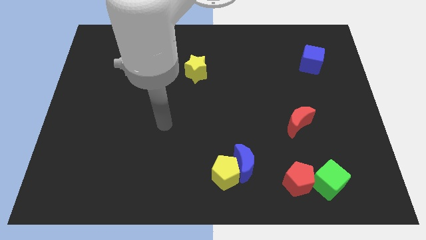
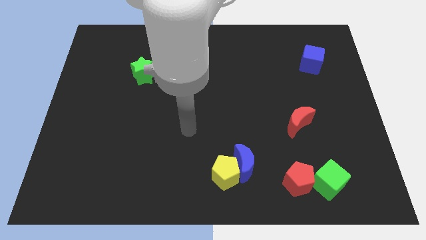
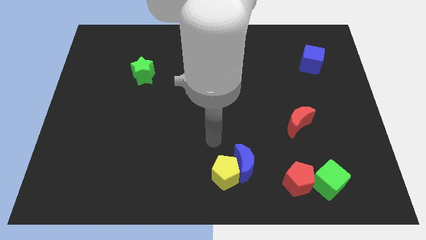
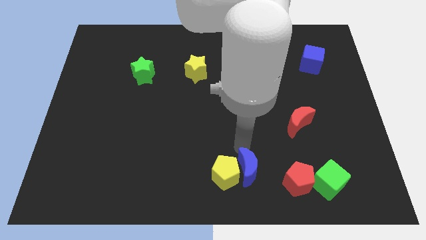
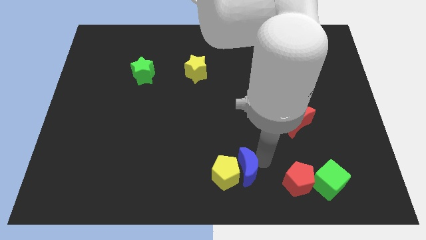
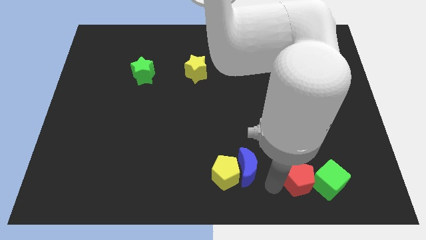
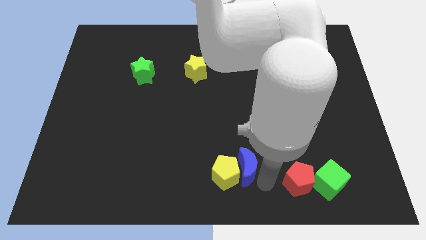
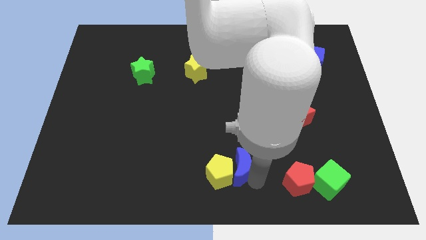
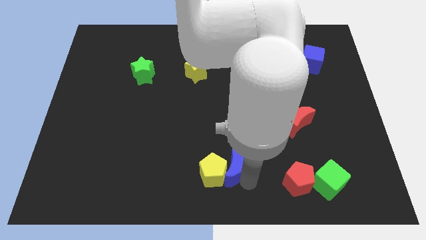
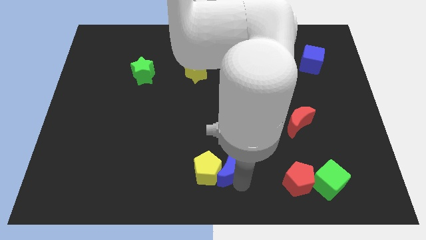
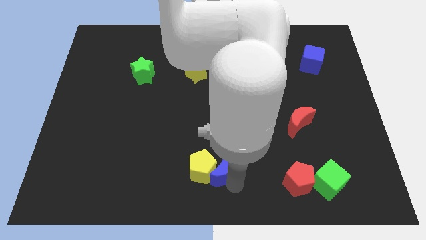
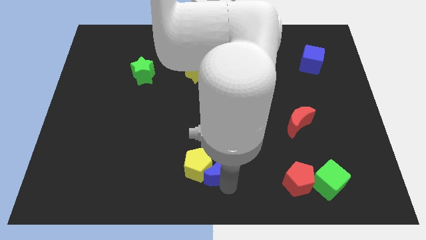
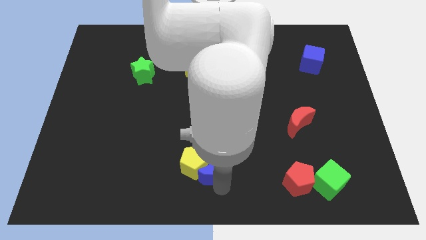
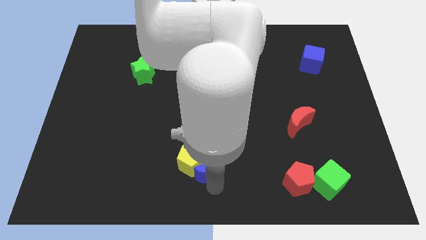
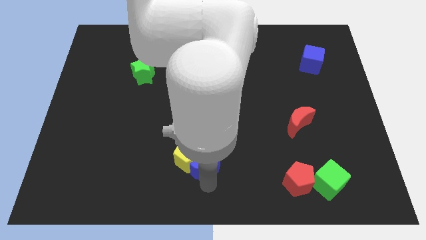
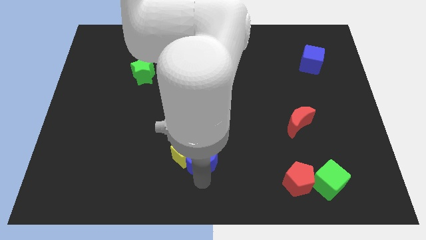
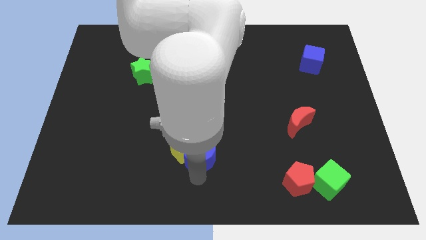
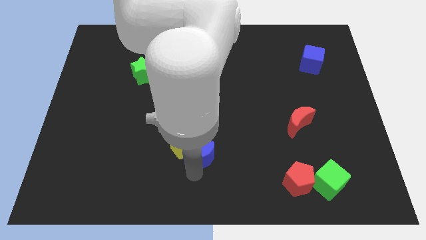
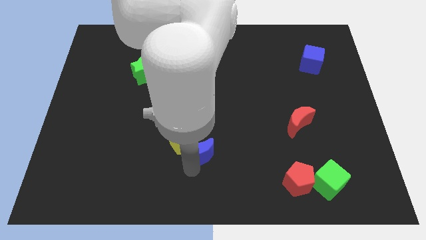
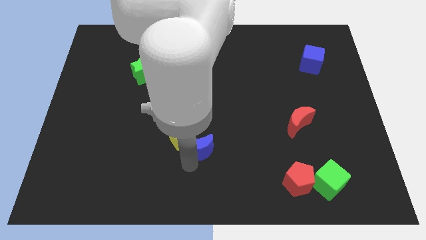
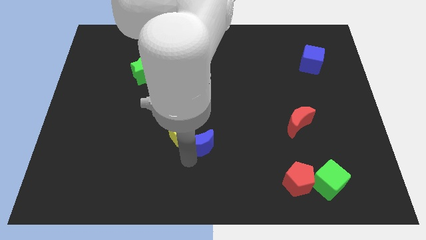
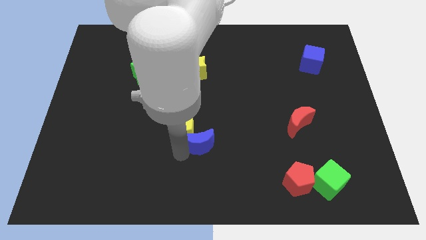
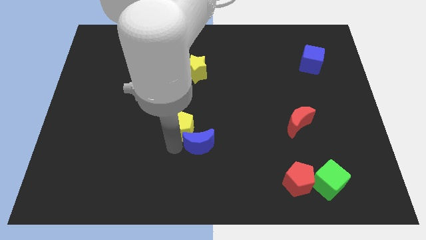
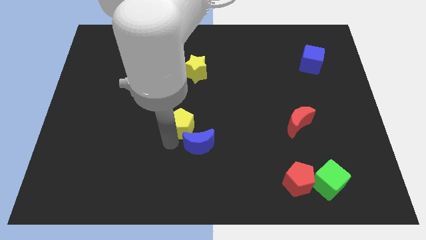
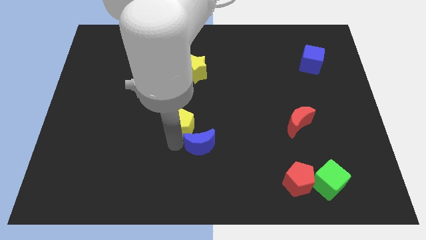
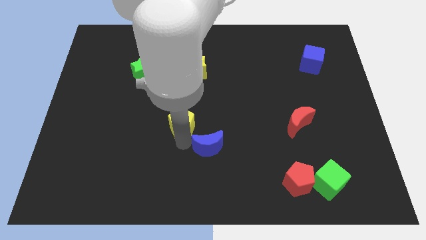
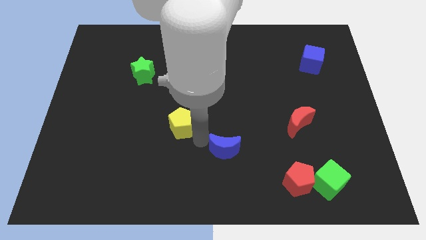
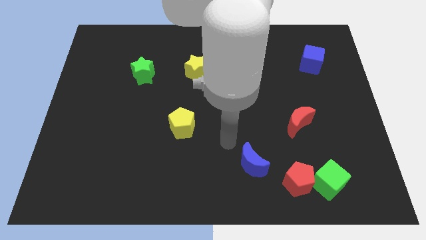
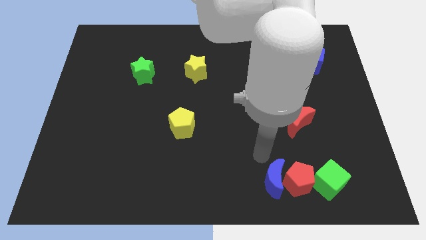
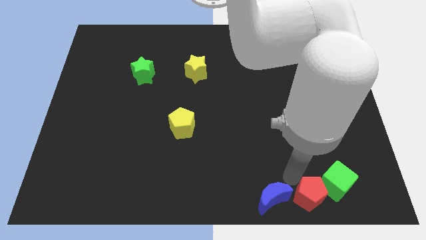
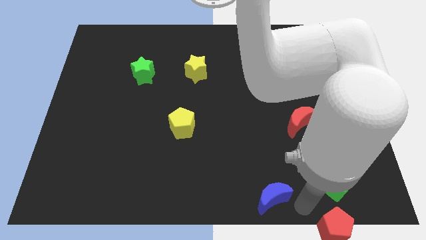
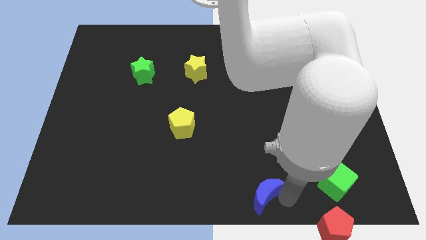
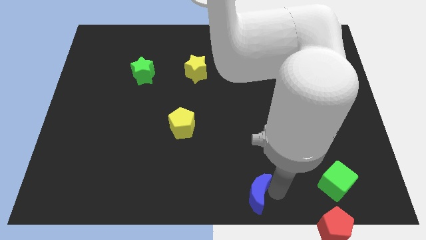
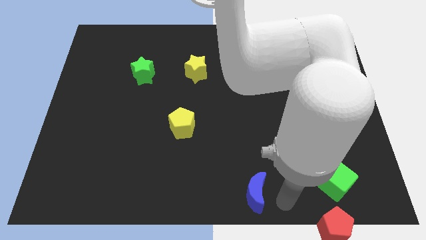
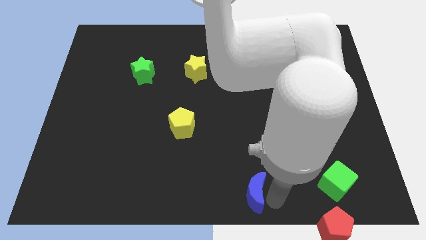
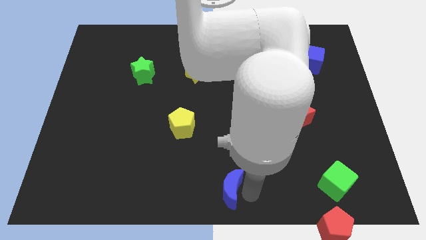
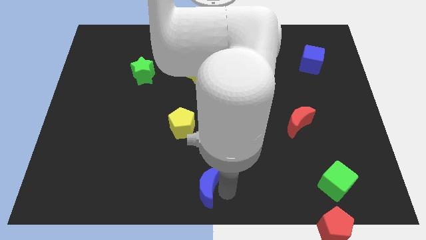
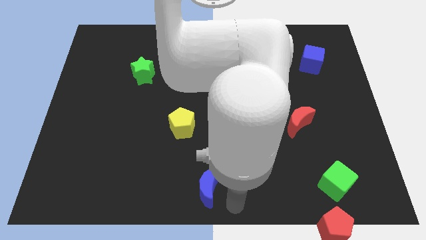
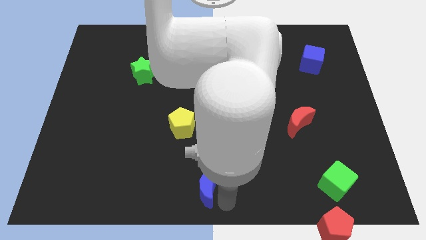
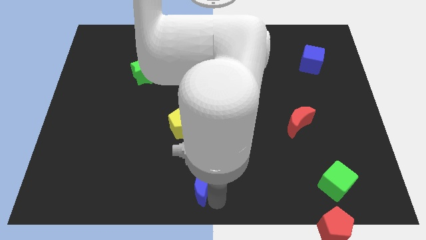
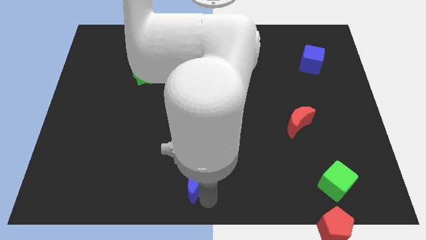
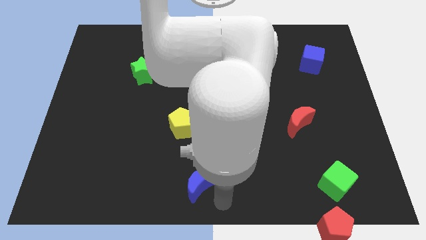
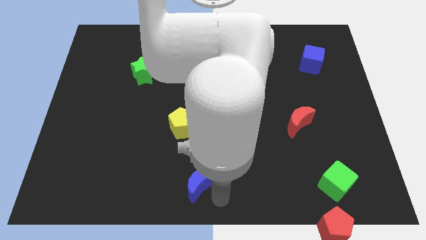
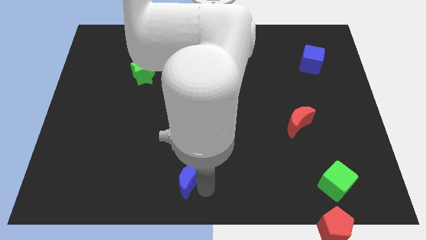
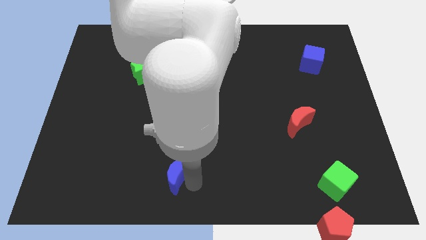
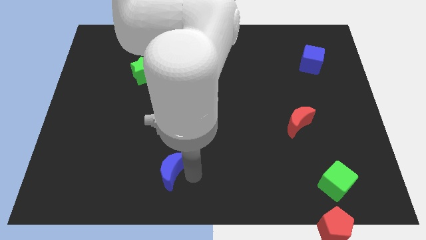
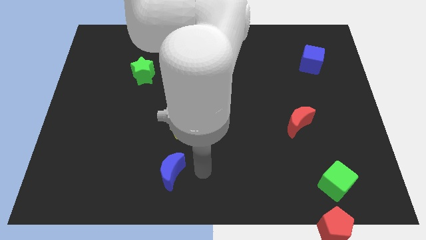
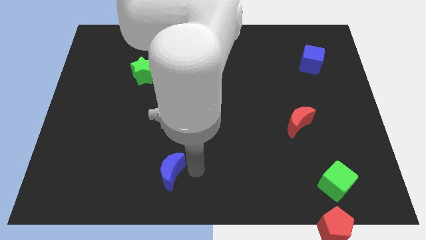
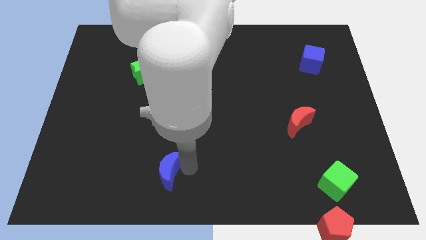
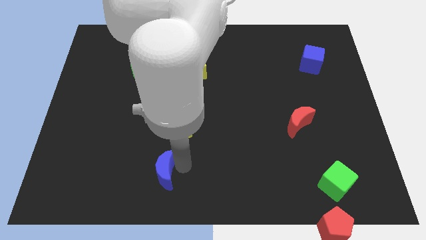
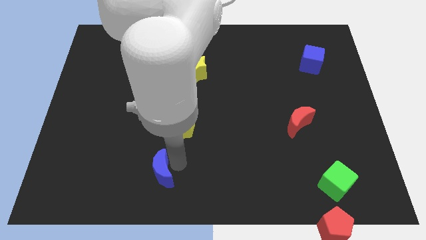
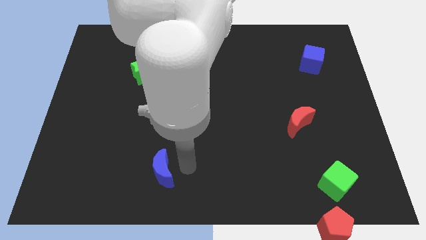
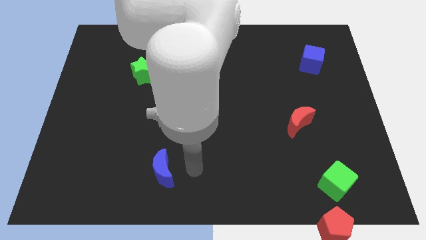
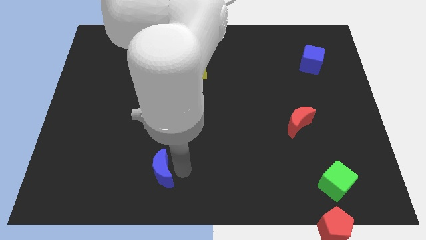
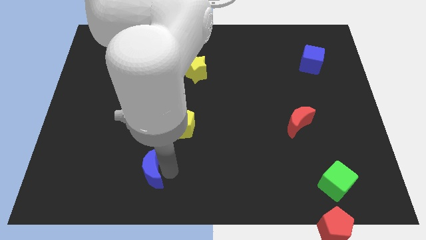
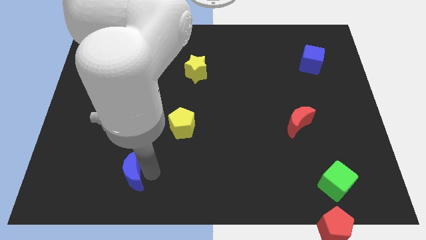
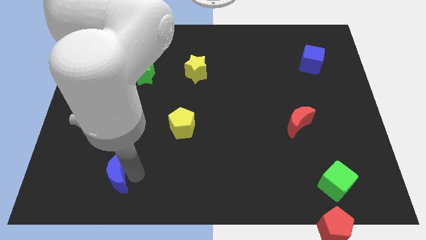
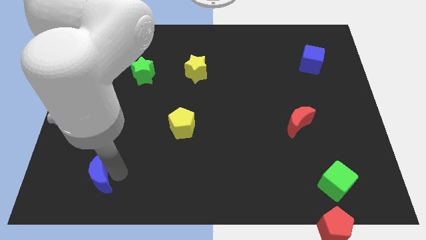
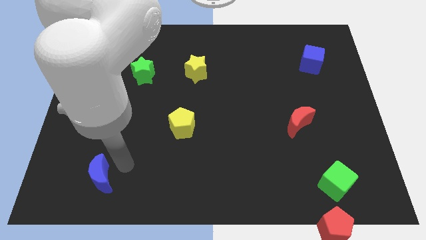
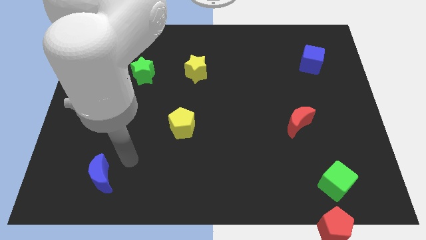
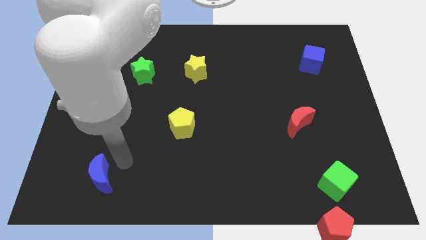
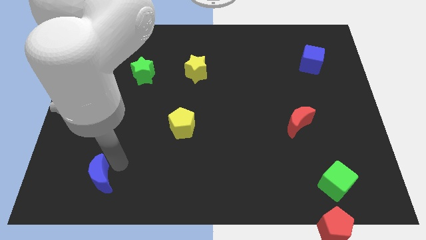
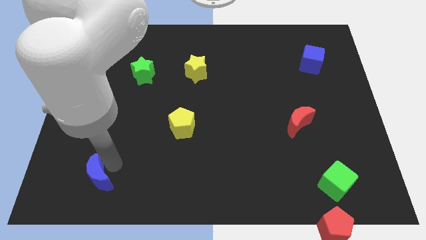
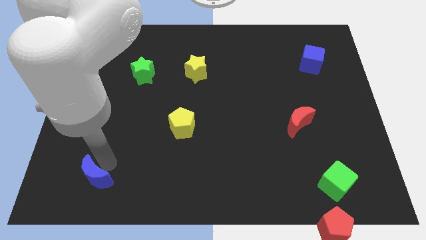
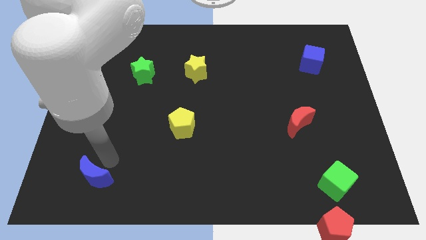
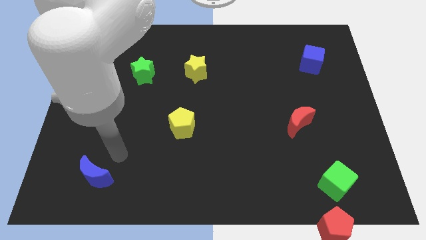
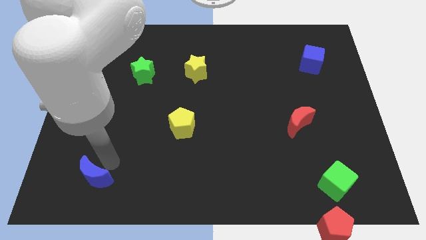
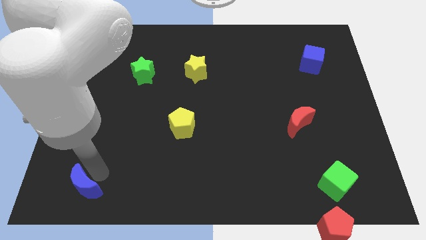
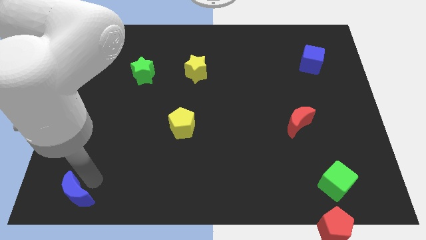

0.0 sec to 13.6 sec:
push the blue moon to the bottom left of the board
